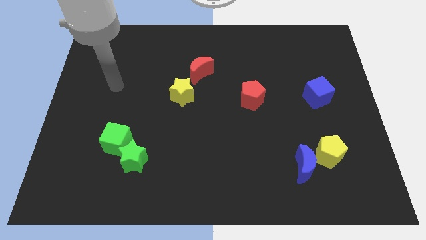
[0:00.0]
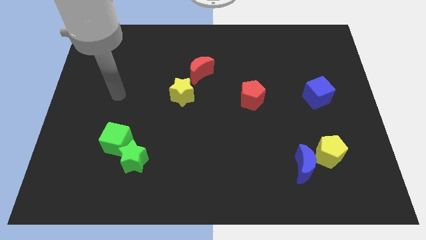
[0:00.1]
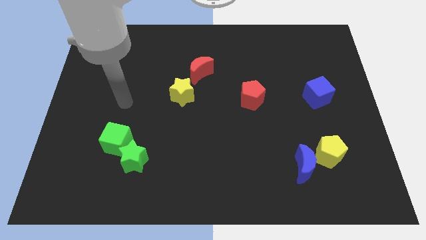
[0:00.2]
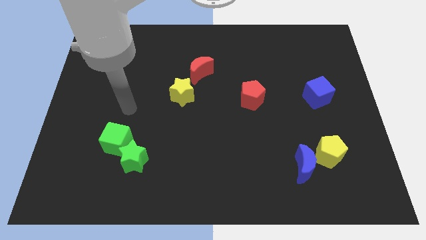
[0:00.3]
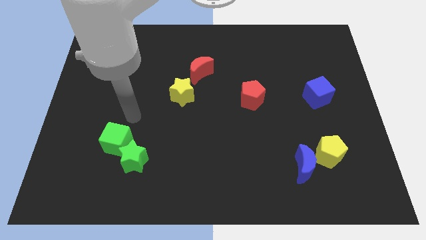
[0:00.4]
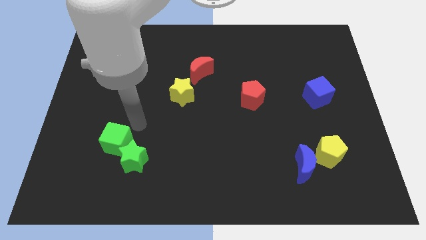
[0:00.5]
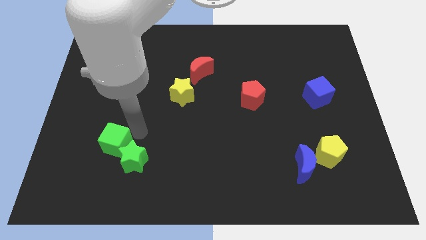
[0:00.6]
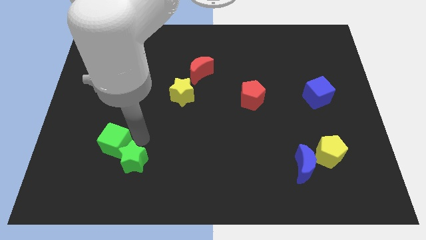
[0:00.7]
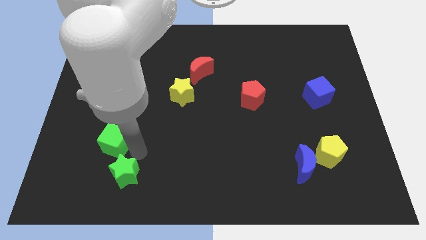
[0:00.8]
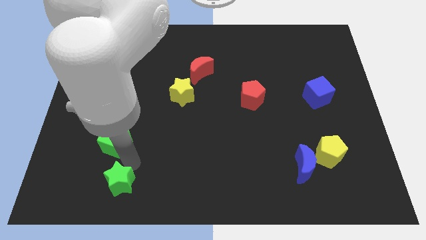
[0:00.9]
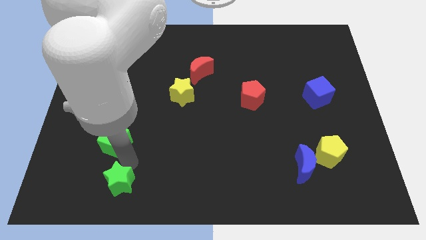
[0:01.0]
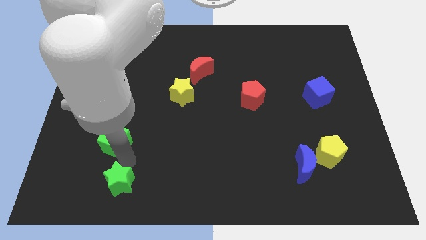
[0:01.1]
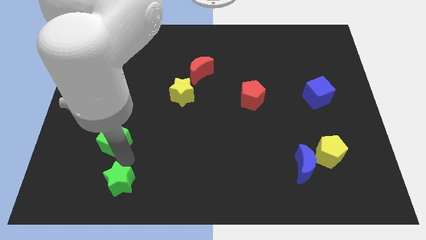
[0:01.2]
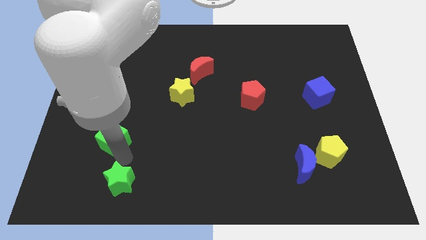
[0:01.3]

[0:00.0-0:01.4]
separate the green cube from the green star

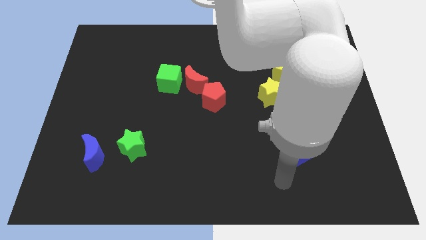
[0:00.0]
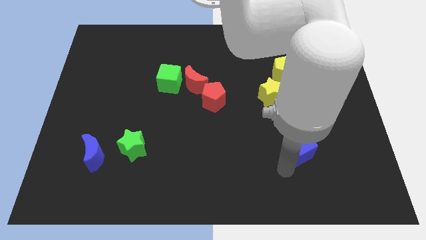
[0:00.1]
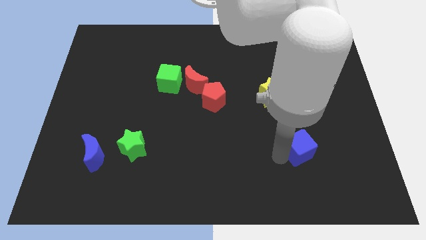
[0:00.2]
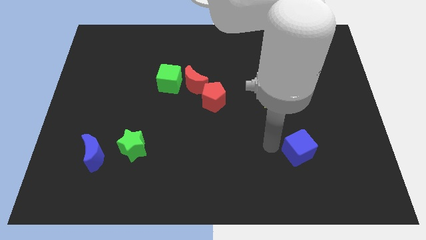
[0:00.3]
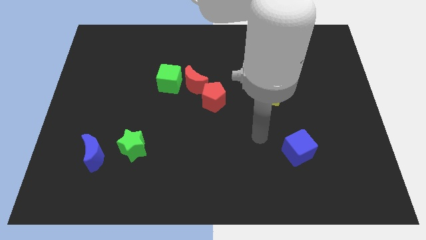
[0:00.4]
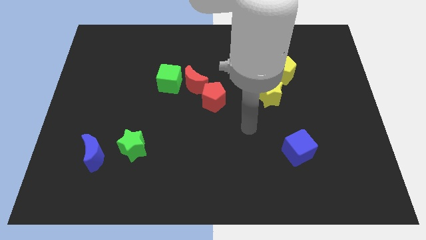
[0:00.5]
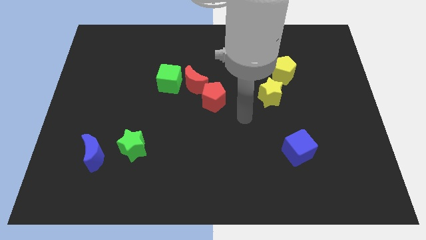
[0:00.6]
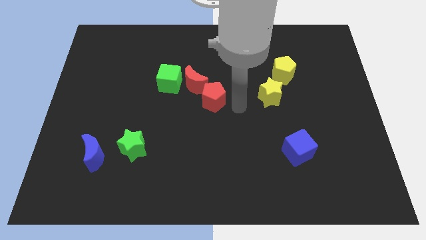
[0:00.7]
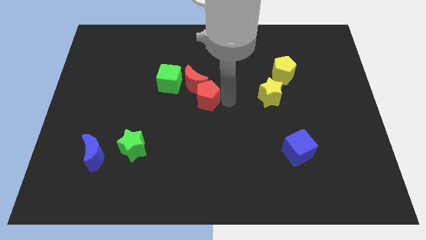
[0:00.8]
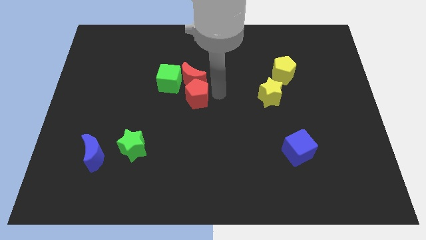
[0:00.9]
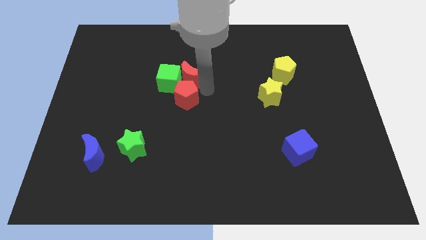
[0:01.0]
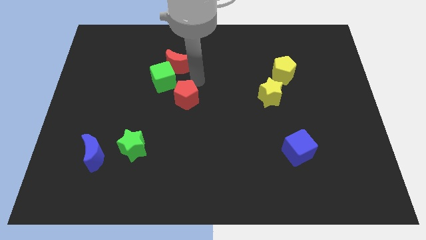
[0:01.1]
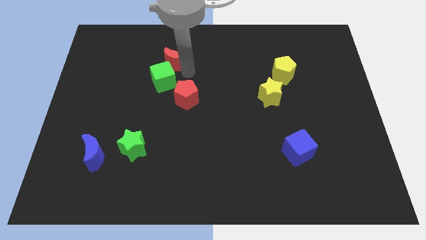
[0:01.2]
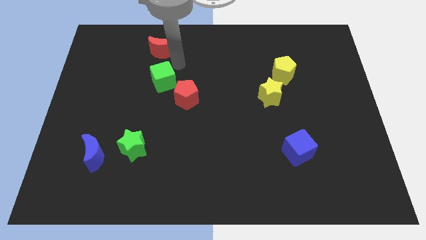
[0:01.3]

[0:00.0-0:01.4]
pull the green cube apart from the red moon

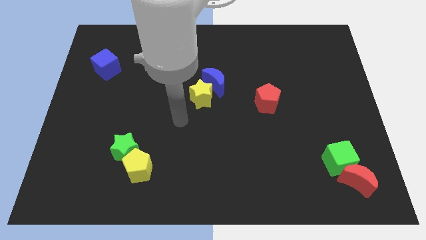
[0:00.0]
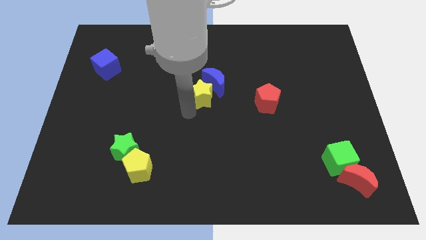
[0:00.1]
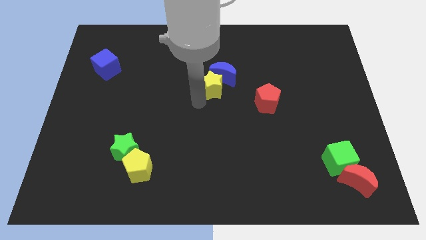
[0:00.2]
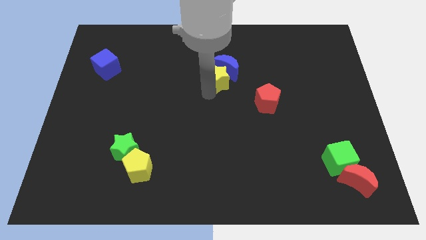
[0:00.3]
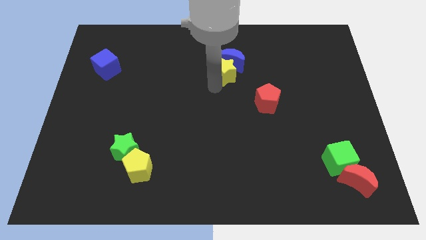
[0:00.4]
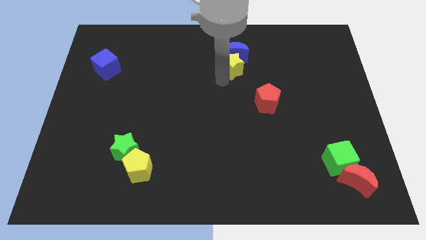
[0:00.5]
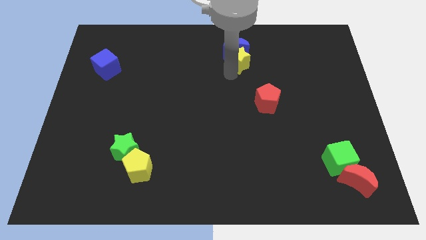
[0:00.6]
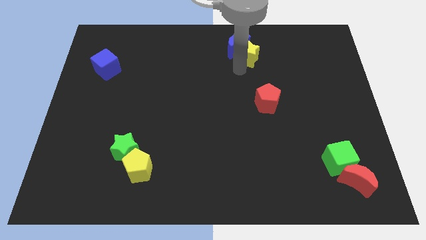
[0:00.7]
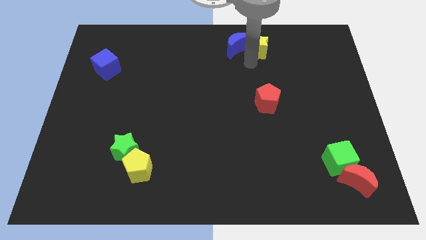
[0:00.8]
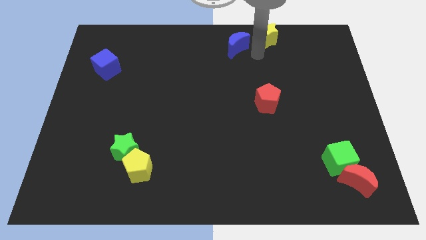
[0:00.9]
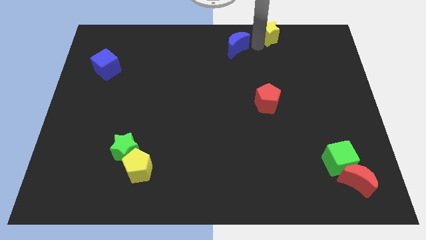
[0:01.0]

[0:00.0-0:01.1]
pull the blue moon apart from the yellow star

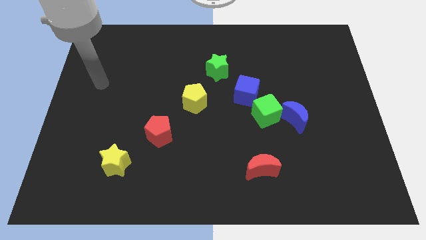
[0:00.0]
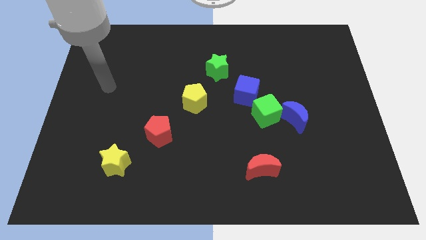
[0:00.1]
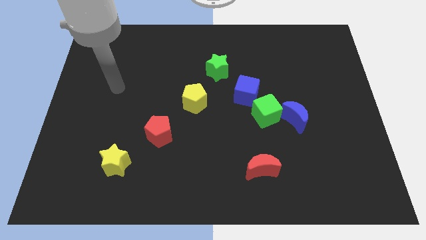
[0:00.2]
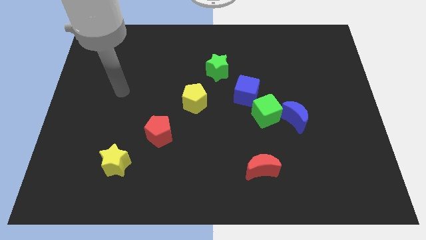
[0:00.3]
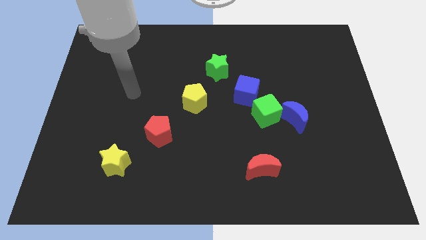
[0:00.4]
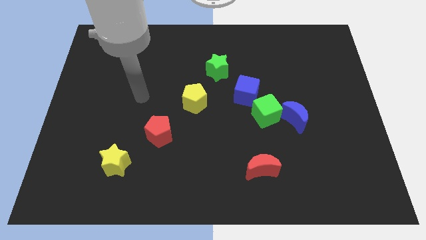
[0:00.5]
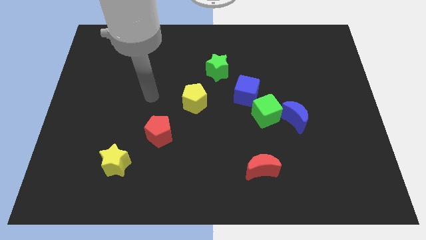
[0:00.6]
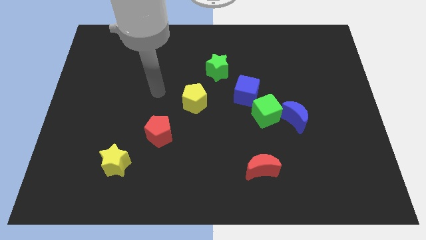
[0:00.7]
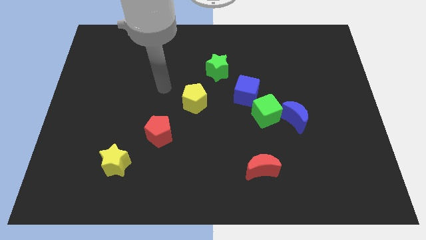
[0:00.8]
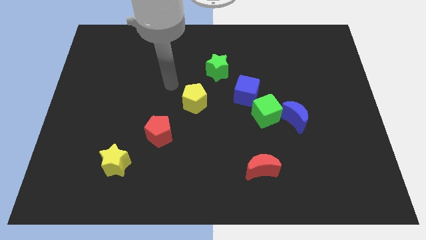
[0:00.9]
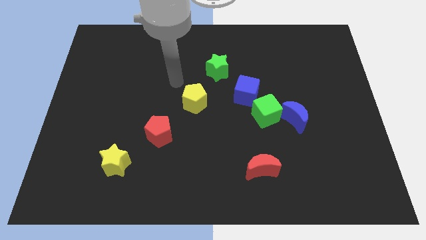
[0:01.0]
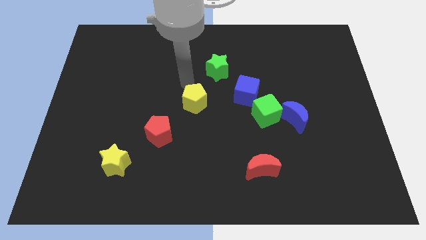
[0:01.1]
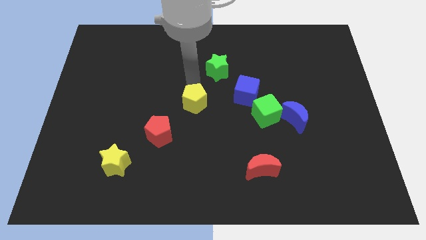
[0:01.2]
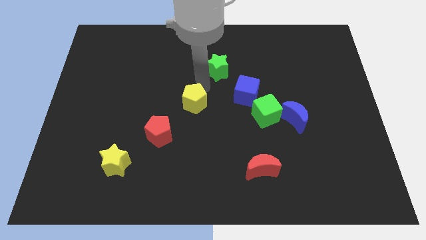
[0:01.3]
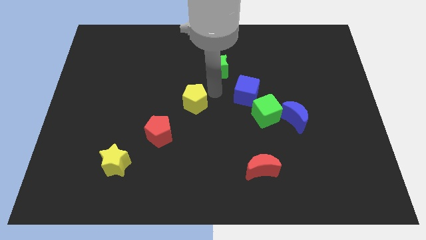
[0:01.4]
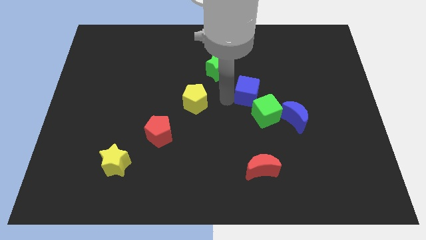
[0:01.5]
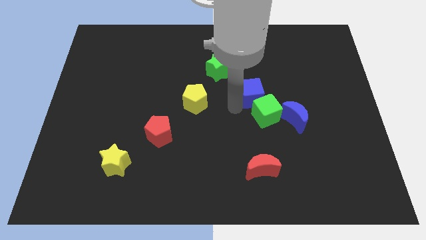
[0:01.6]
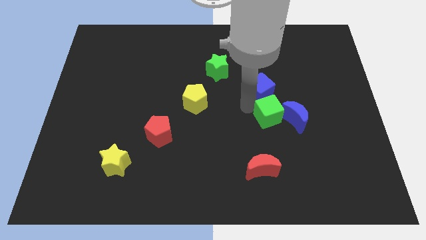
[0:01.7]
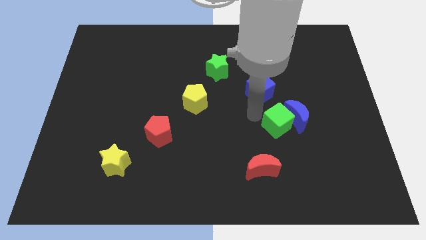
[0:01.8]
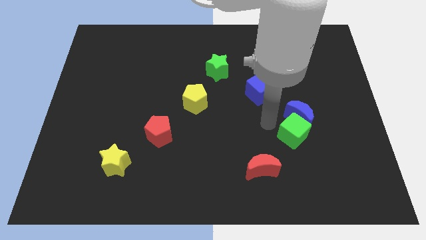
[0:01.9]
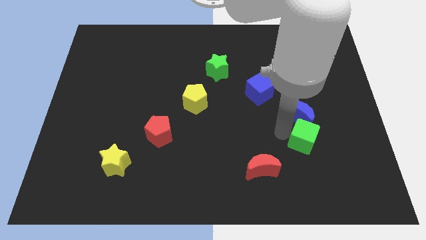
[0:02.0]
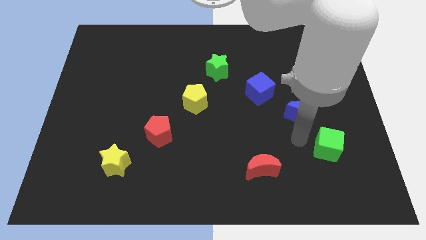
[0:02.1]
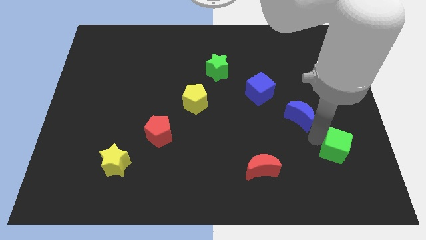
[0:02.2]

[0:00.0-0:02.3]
move the blue moon away from the green cube

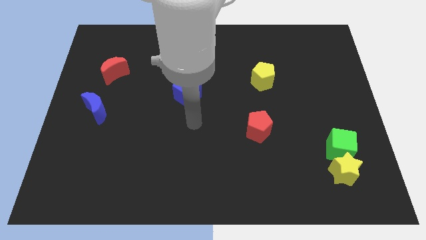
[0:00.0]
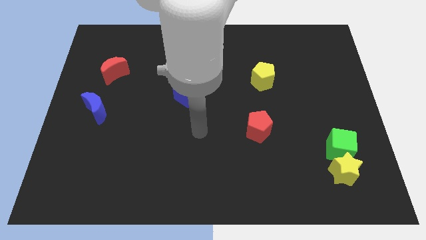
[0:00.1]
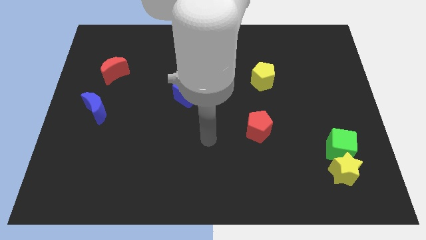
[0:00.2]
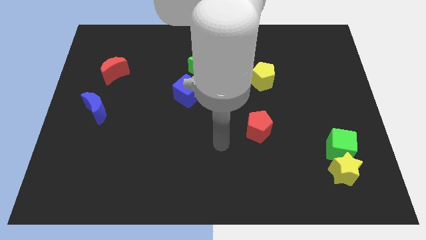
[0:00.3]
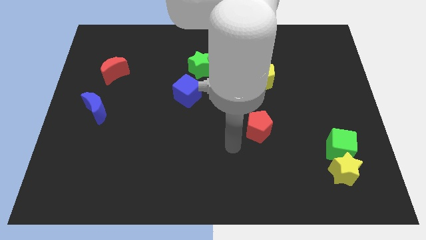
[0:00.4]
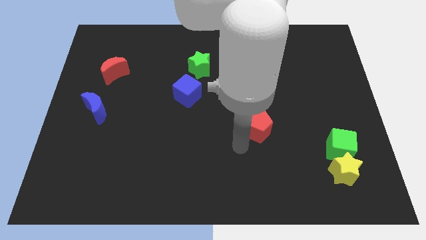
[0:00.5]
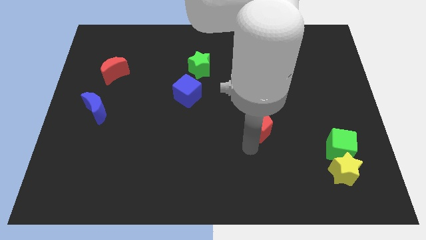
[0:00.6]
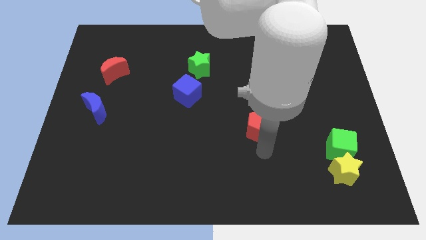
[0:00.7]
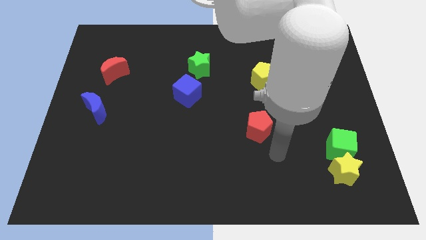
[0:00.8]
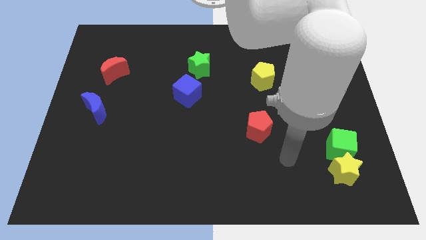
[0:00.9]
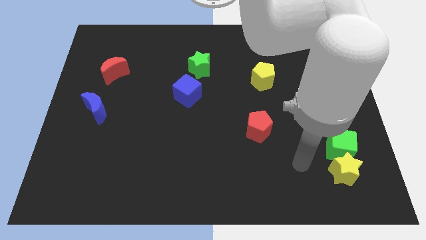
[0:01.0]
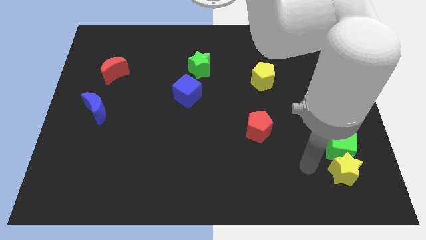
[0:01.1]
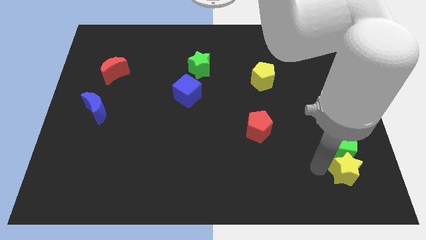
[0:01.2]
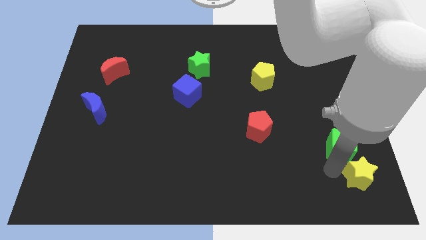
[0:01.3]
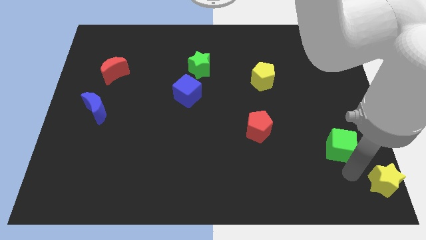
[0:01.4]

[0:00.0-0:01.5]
move the green cube away from the yellow star

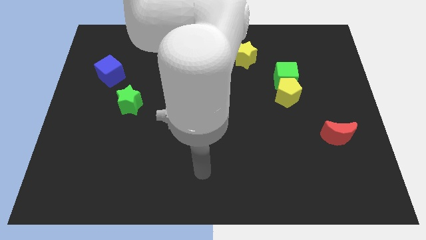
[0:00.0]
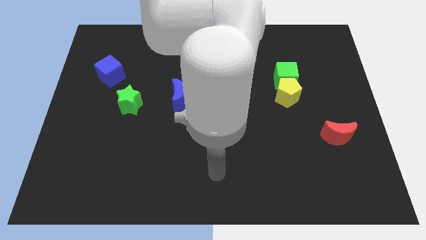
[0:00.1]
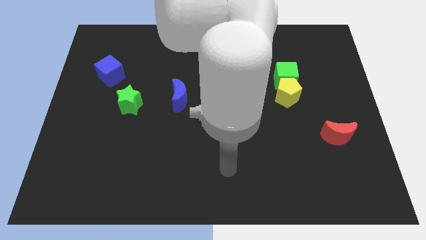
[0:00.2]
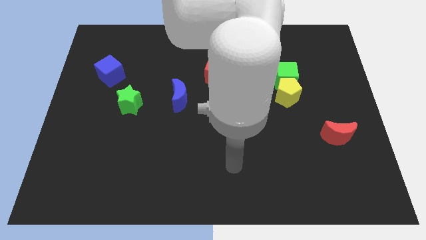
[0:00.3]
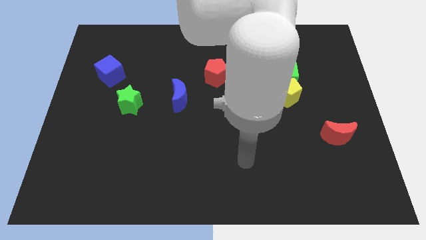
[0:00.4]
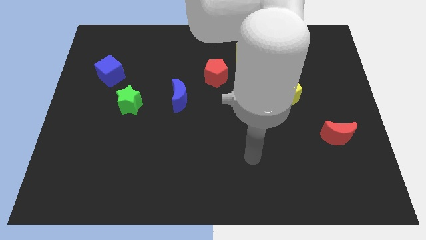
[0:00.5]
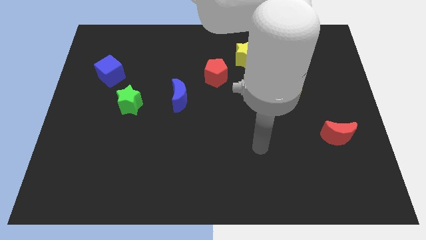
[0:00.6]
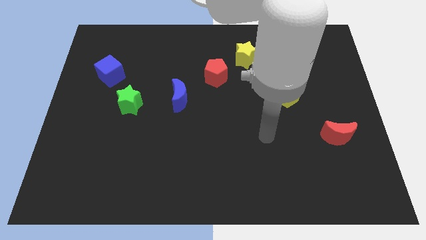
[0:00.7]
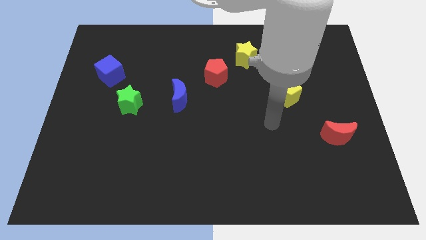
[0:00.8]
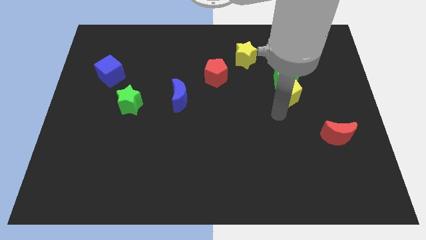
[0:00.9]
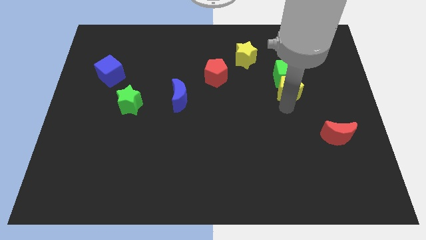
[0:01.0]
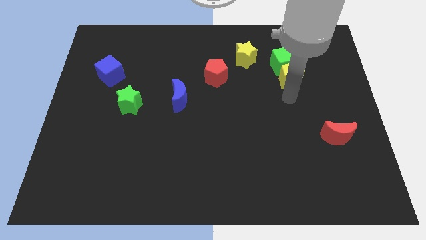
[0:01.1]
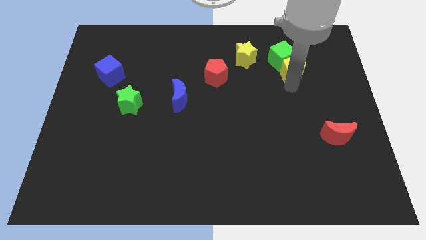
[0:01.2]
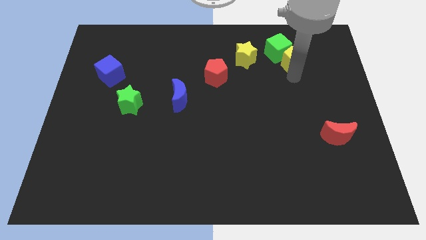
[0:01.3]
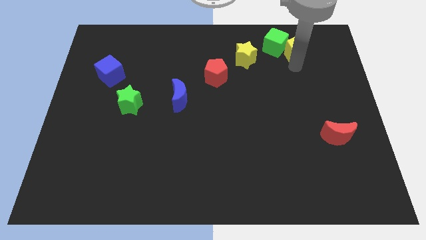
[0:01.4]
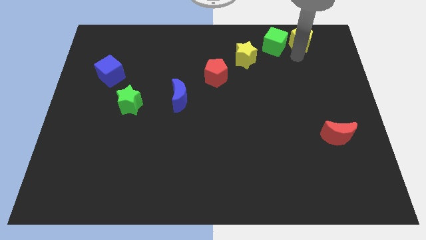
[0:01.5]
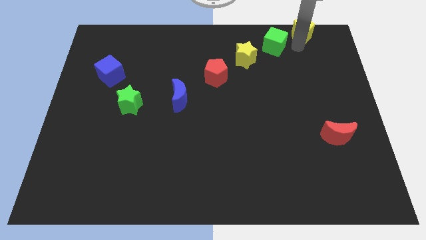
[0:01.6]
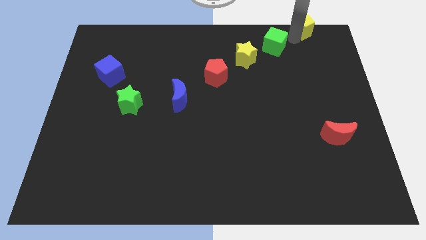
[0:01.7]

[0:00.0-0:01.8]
move the green cube away from the yellow pentagon
